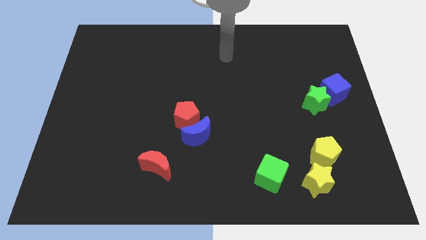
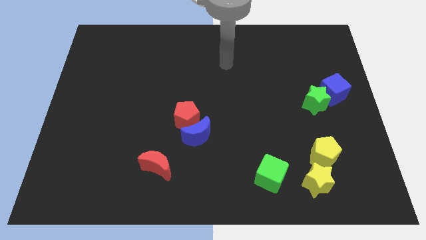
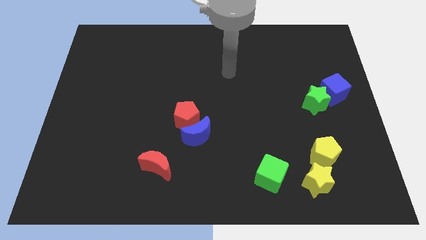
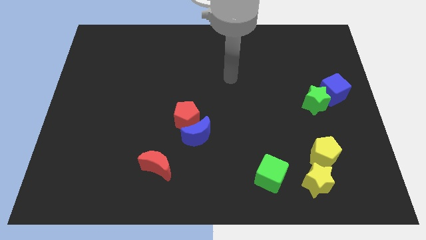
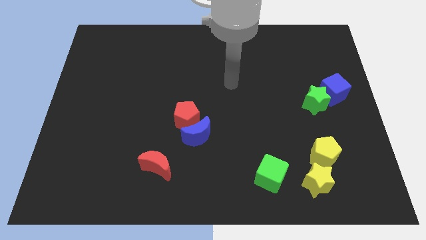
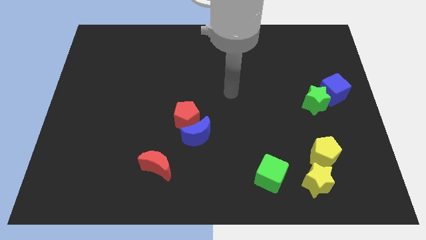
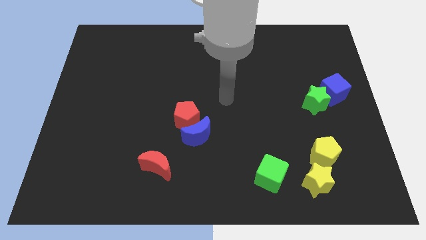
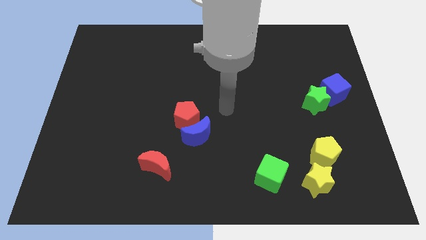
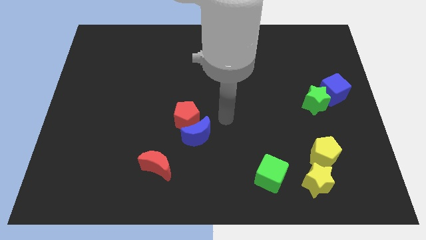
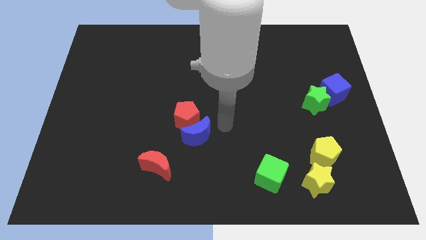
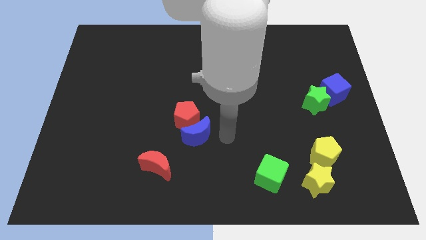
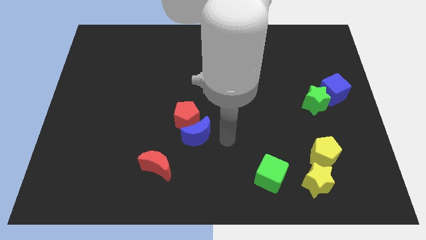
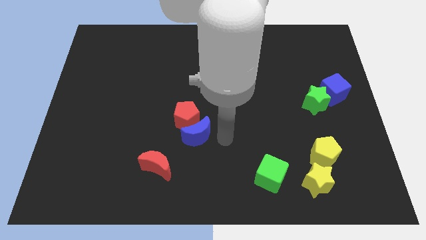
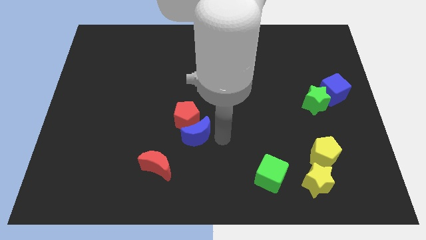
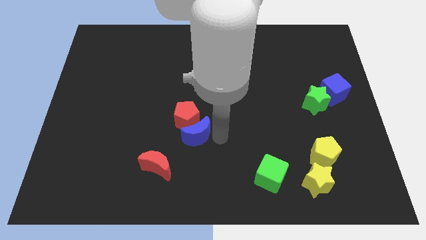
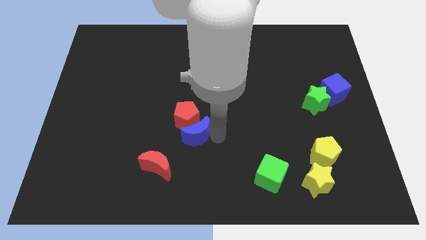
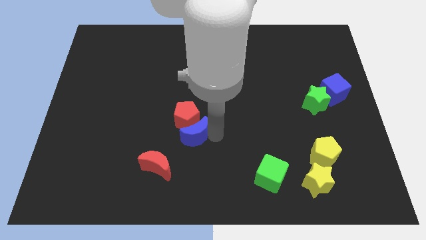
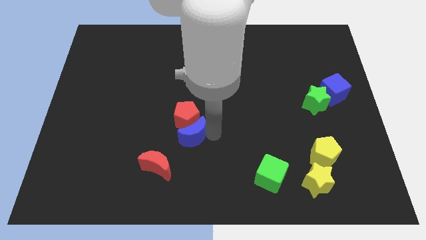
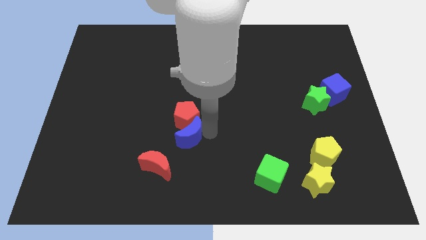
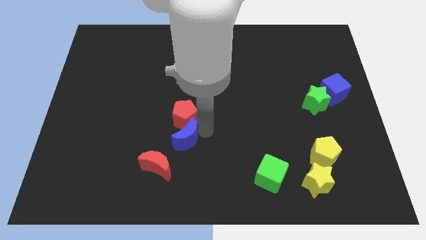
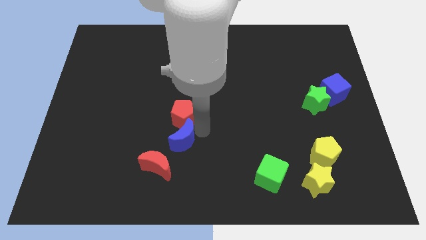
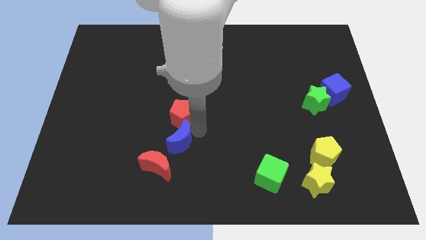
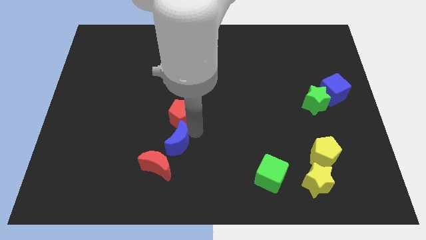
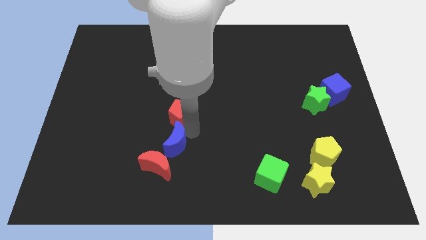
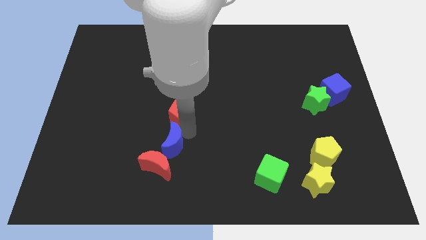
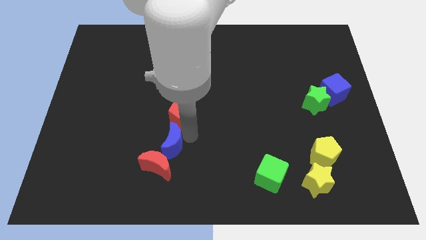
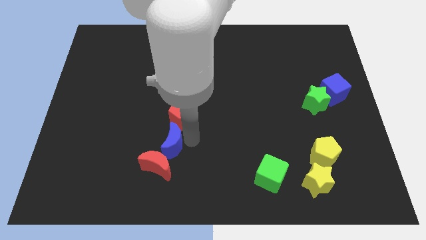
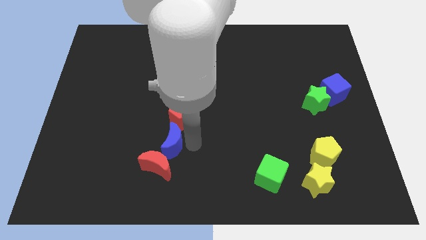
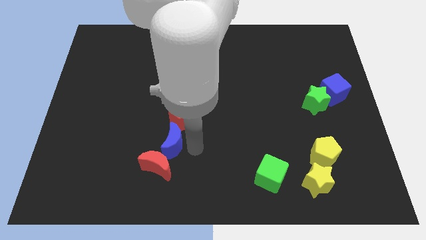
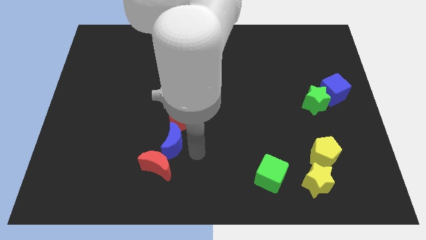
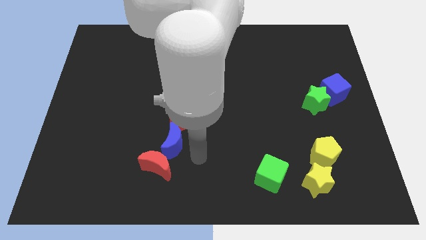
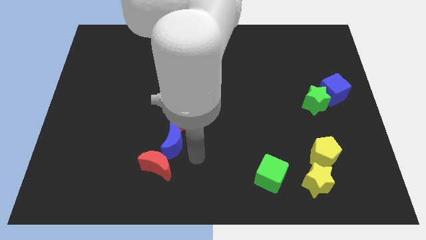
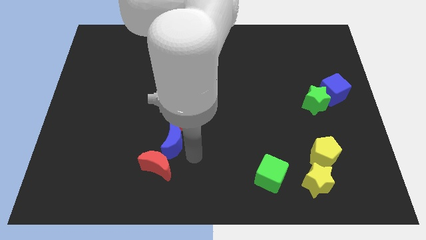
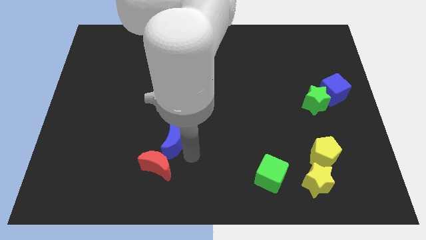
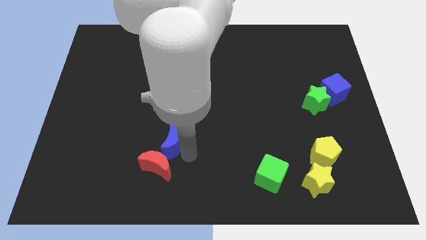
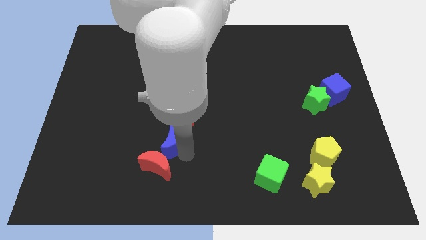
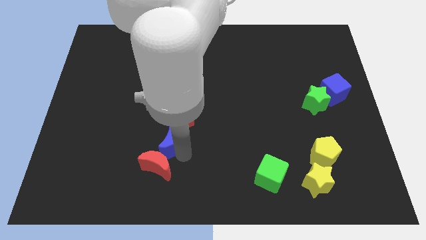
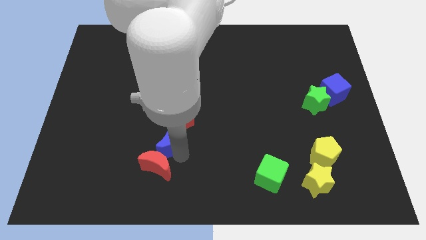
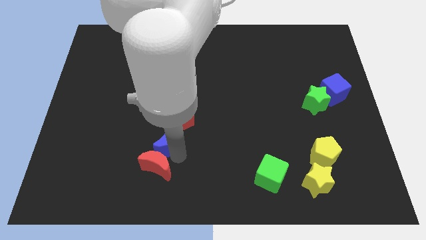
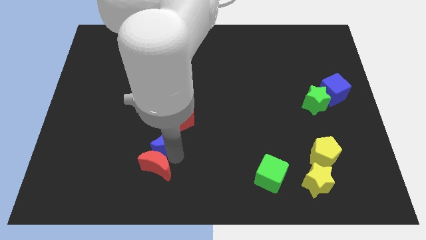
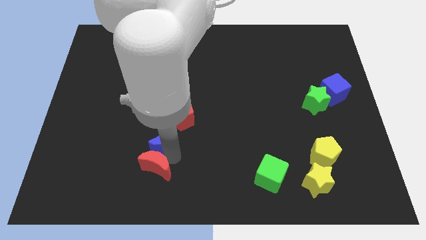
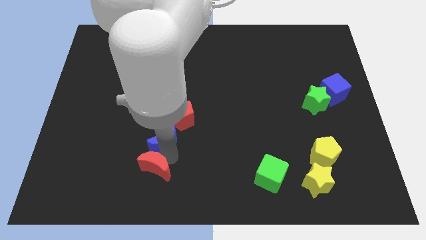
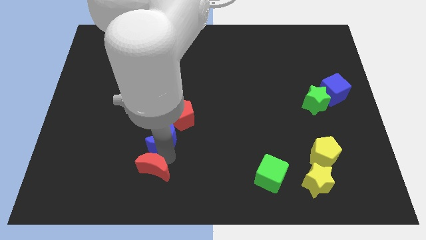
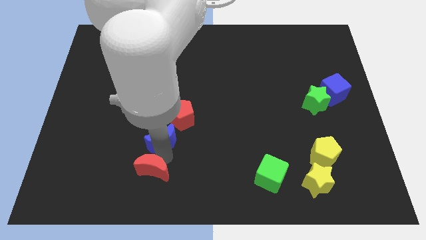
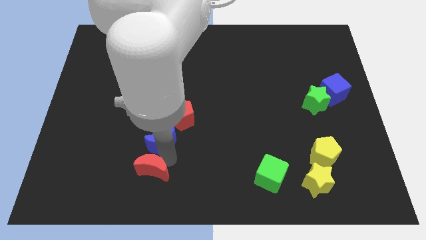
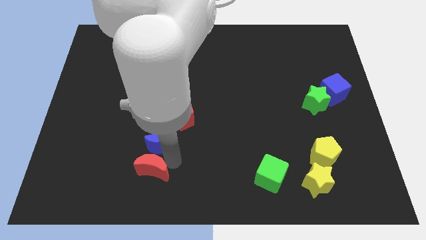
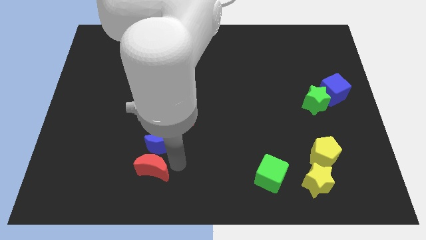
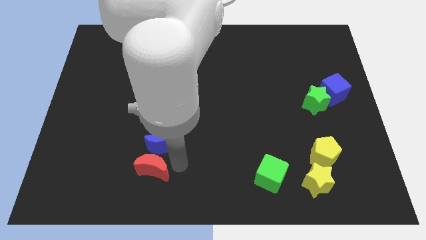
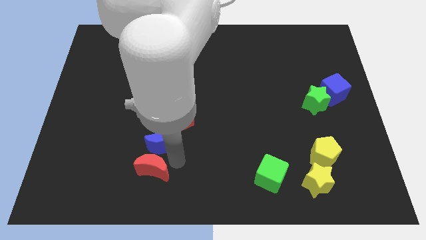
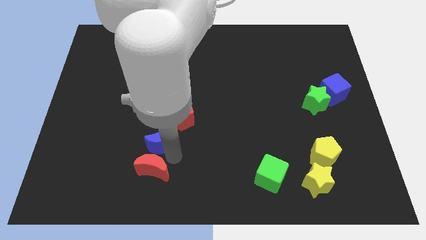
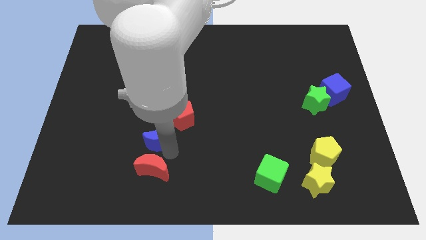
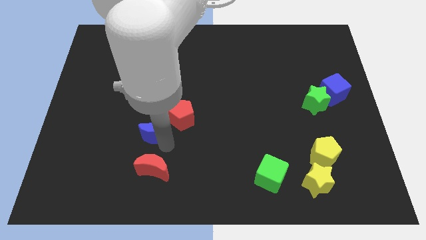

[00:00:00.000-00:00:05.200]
put the blue moon just left of the red pentagon

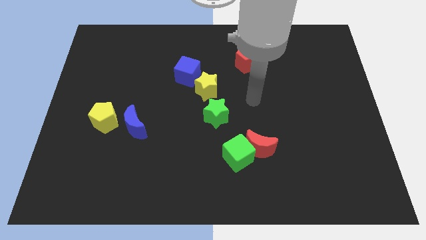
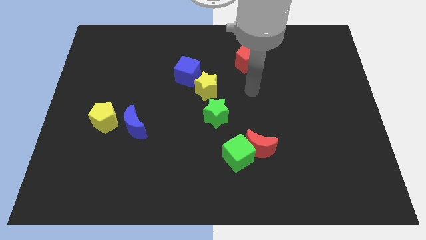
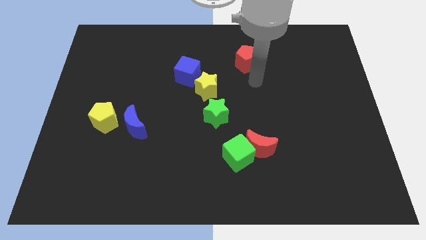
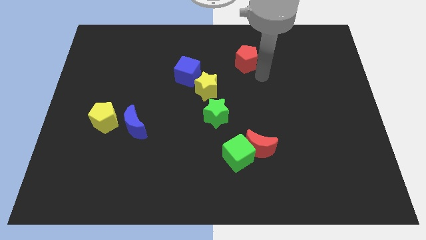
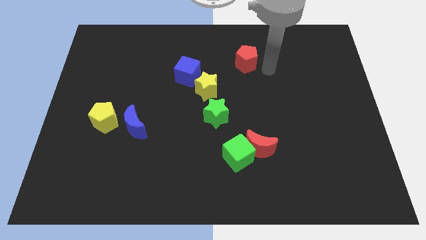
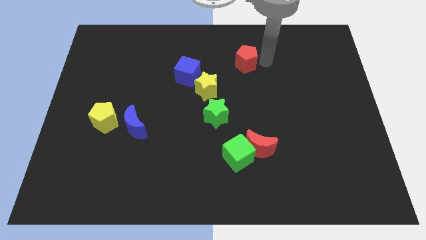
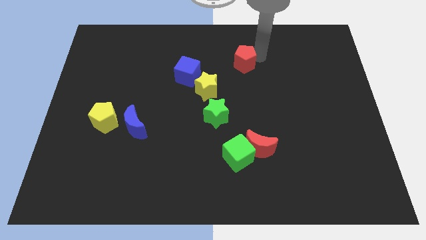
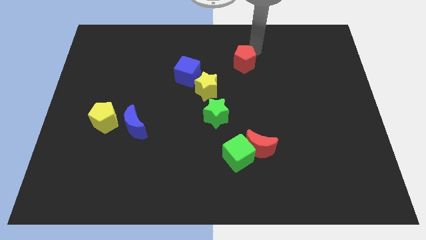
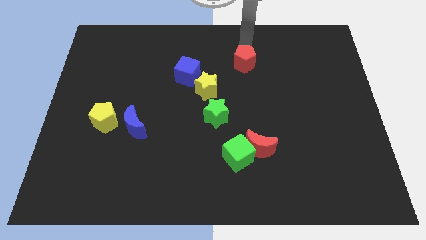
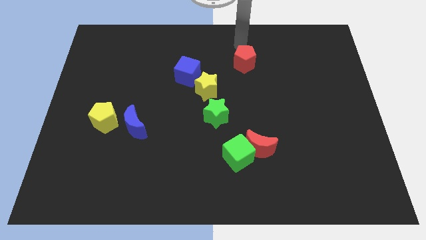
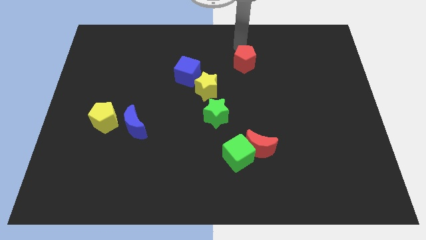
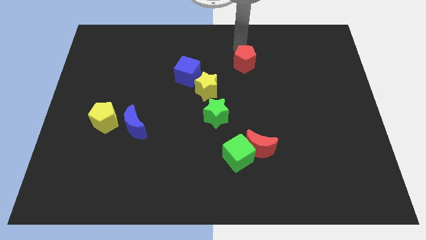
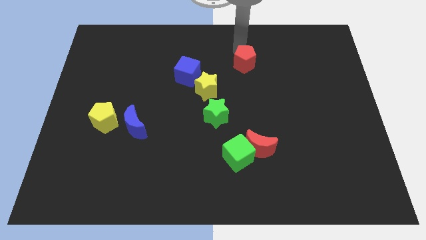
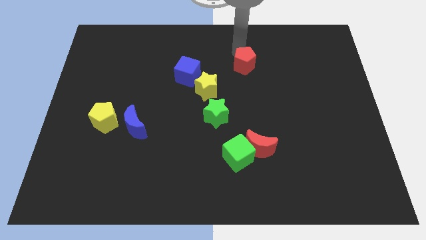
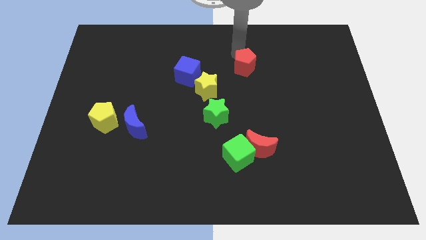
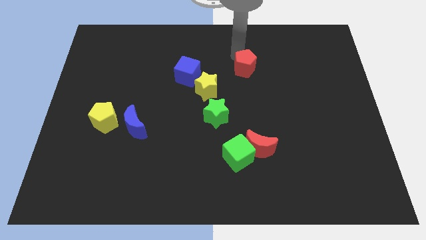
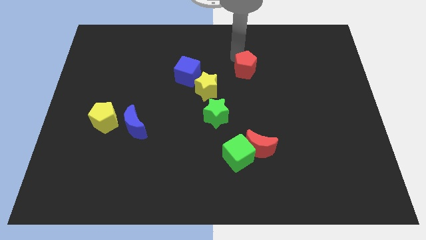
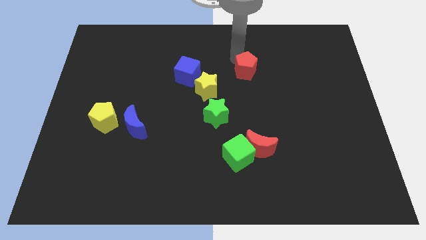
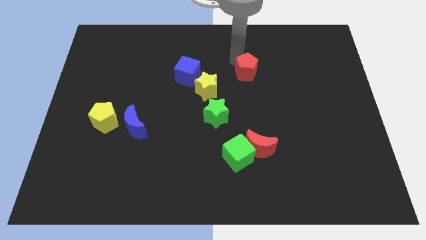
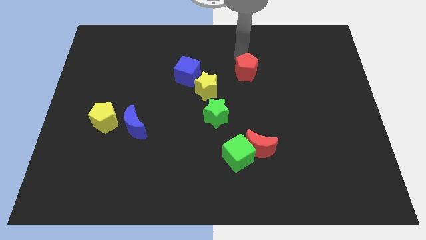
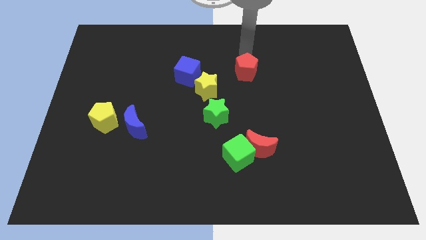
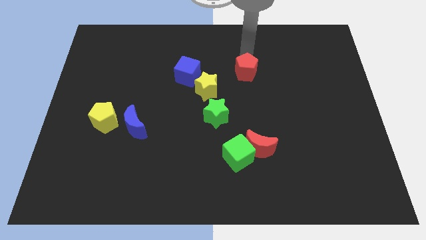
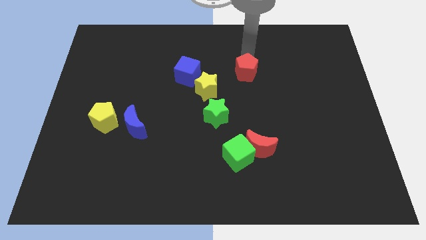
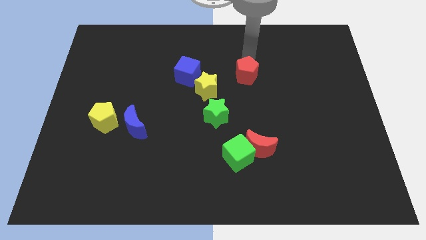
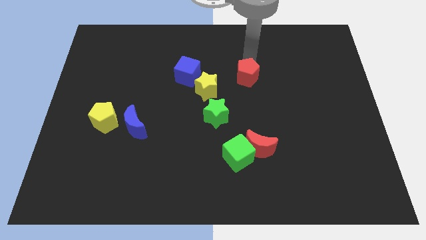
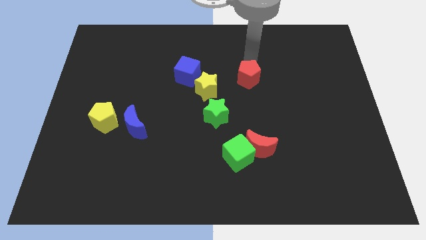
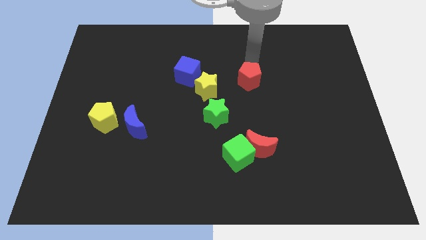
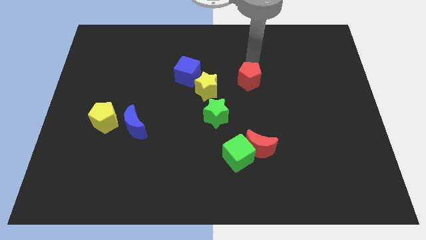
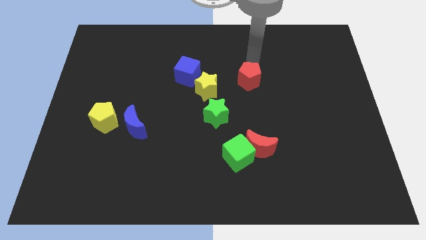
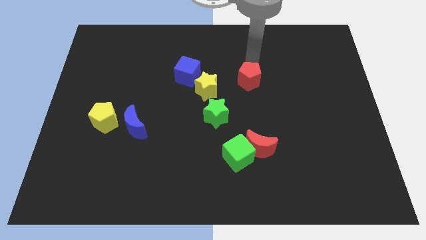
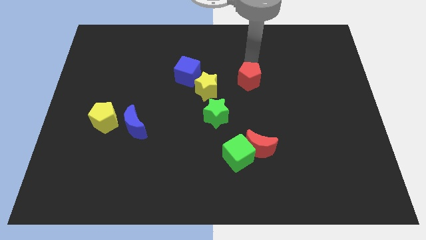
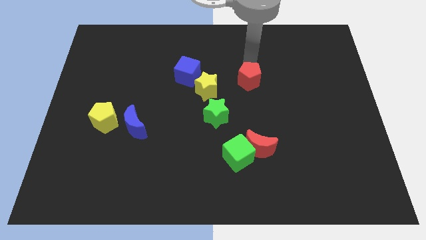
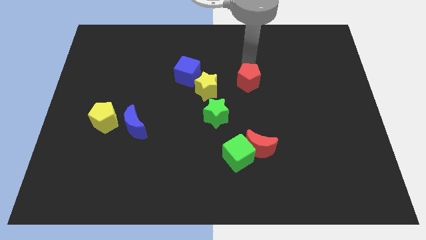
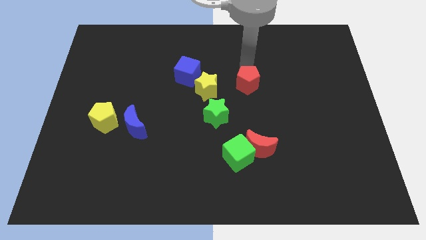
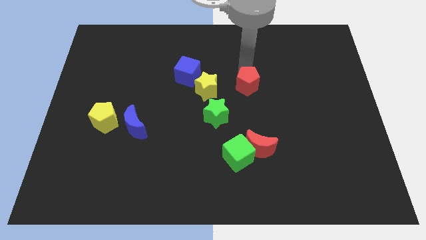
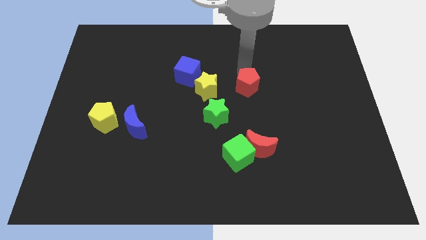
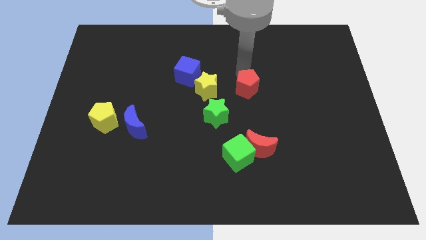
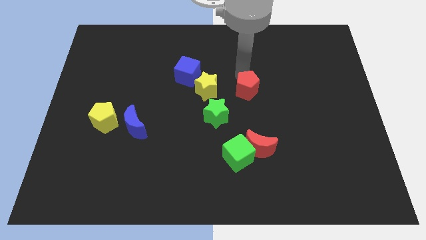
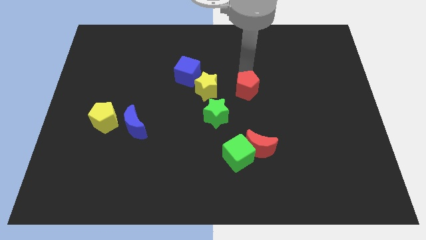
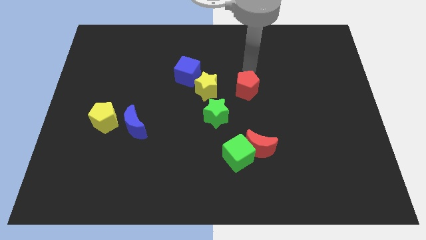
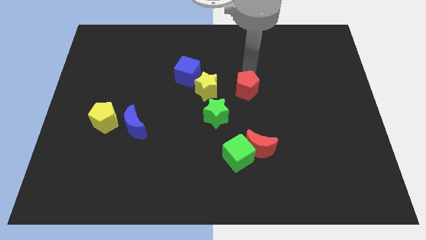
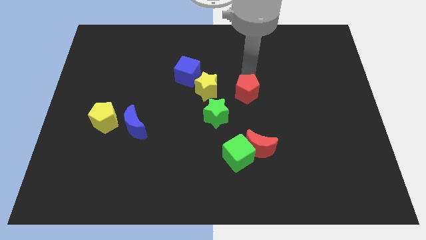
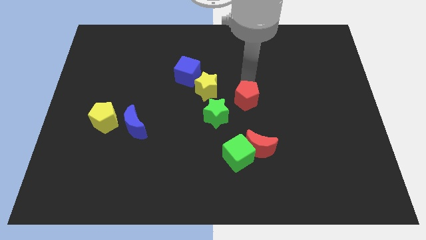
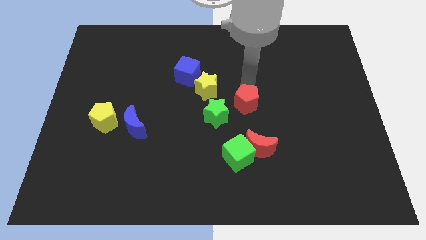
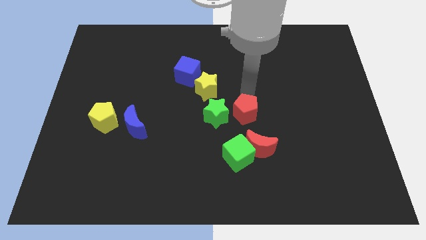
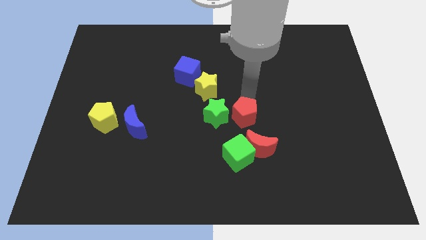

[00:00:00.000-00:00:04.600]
put the red pentagon to the top left of the red moon
